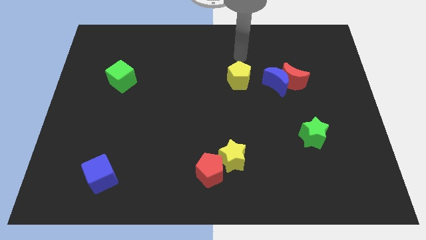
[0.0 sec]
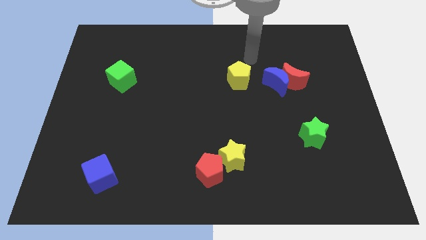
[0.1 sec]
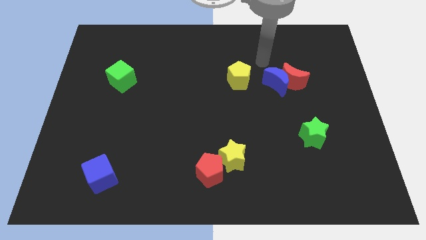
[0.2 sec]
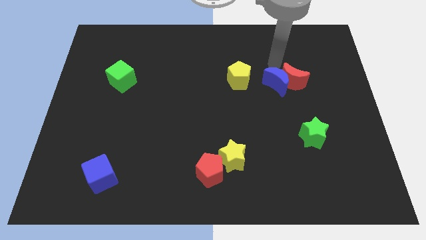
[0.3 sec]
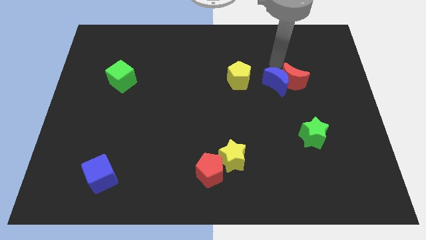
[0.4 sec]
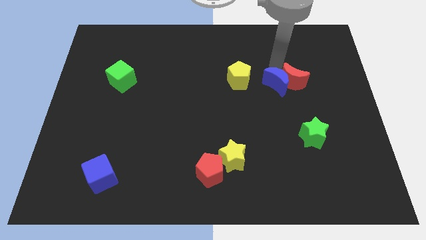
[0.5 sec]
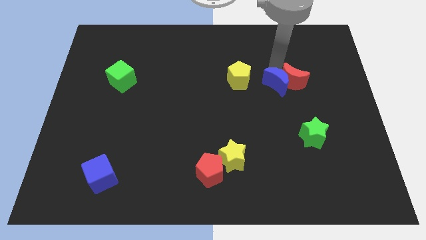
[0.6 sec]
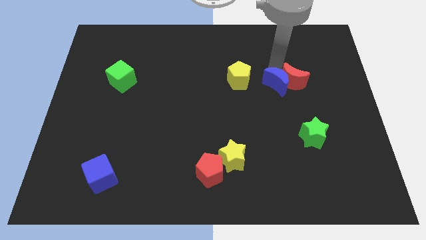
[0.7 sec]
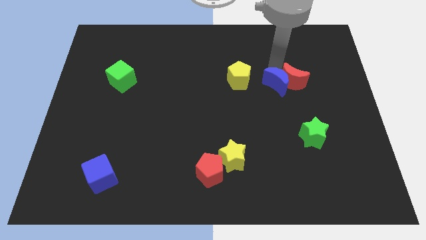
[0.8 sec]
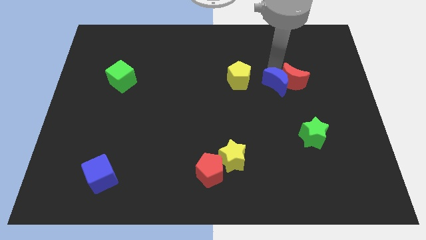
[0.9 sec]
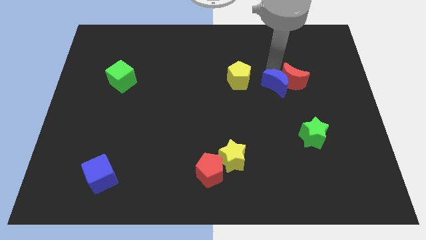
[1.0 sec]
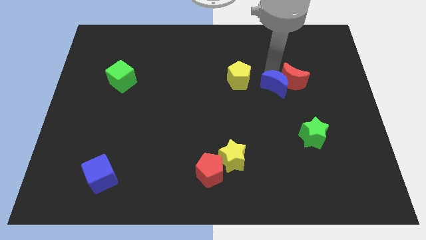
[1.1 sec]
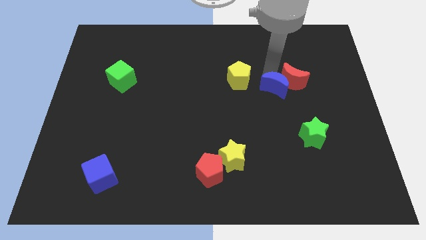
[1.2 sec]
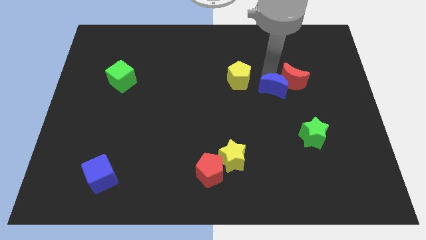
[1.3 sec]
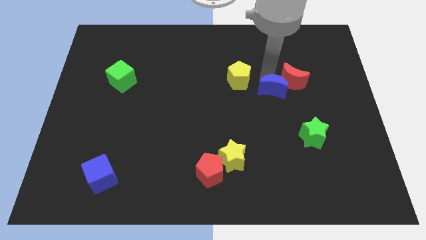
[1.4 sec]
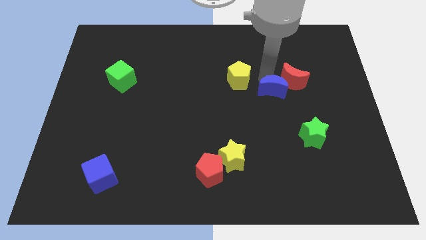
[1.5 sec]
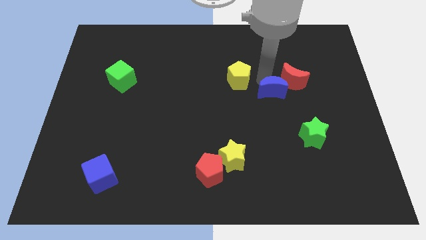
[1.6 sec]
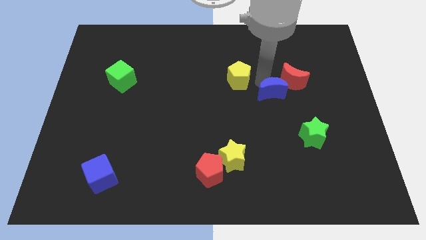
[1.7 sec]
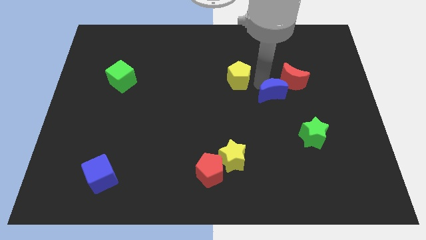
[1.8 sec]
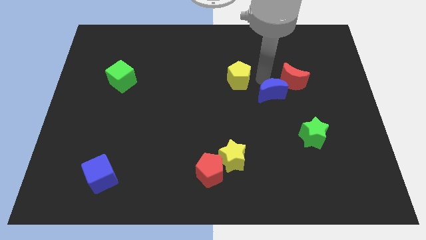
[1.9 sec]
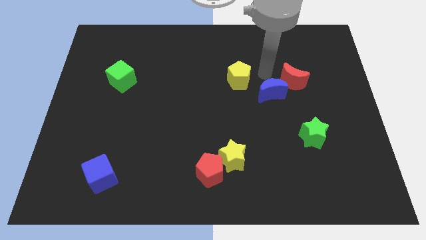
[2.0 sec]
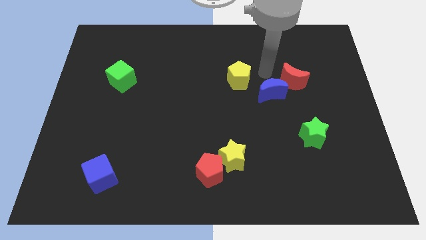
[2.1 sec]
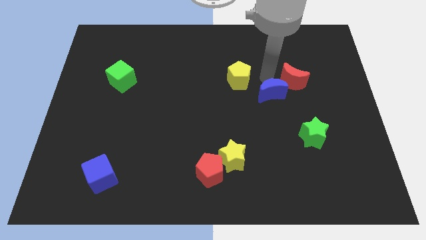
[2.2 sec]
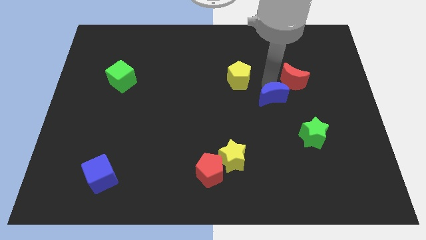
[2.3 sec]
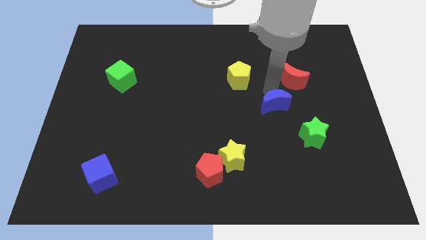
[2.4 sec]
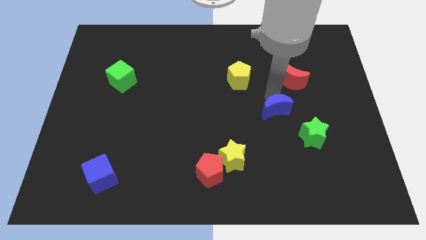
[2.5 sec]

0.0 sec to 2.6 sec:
slide the blue moon slightly down

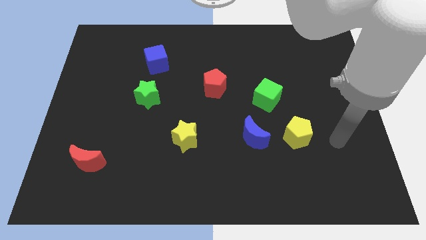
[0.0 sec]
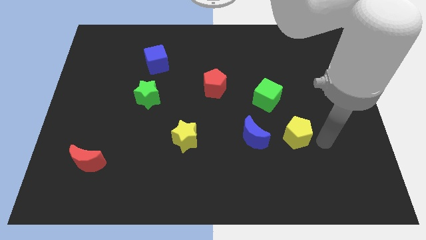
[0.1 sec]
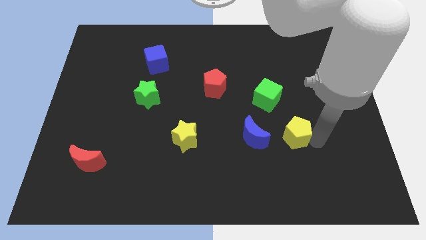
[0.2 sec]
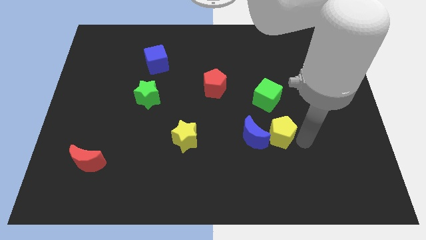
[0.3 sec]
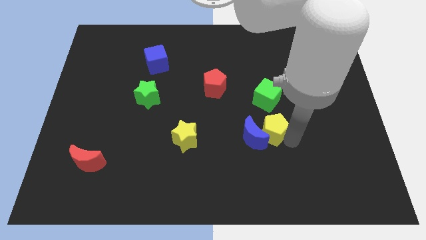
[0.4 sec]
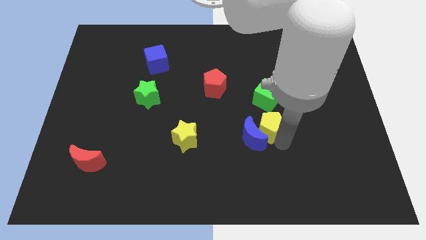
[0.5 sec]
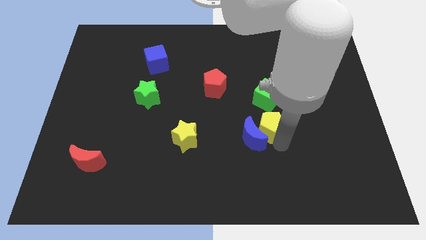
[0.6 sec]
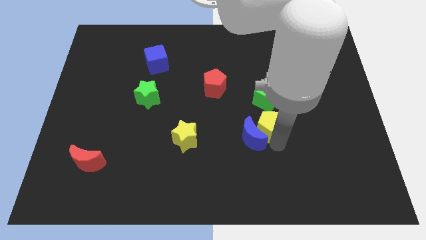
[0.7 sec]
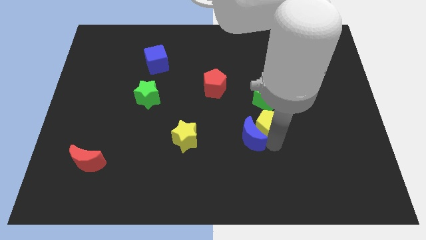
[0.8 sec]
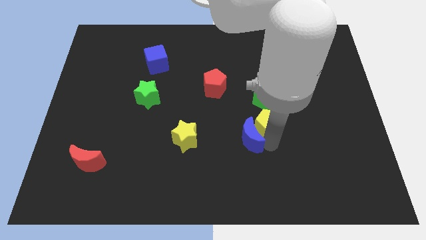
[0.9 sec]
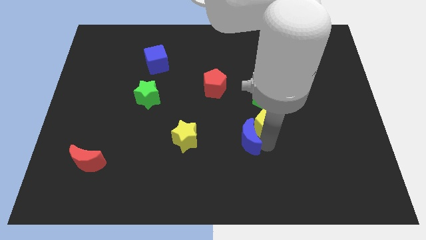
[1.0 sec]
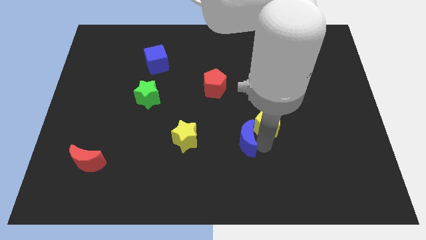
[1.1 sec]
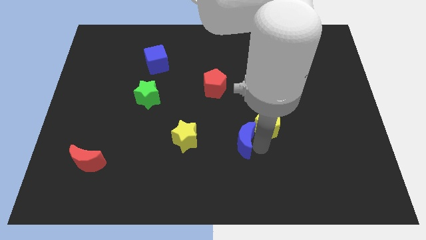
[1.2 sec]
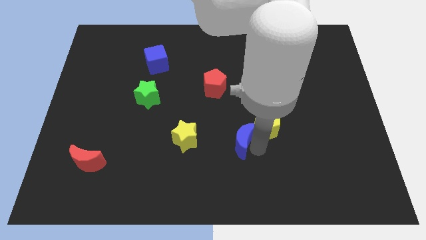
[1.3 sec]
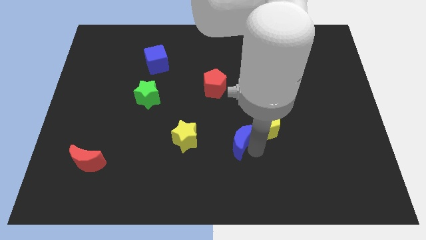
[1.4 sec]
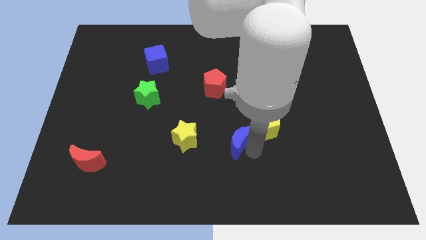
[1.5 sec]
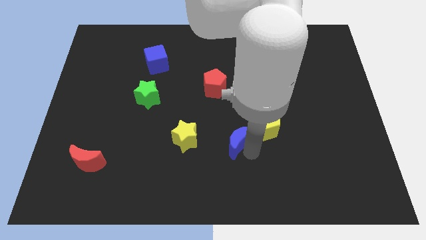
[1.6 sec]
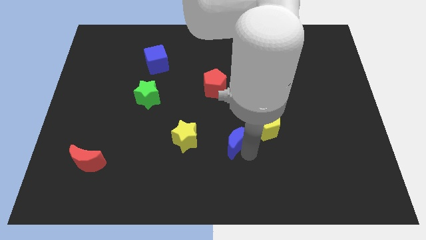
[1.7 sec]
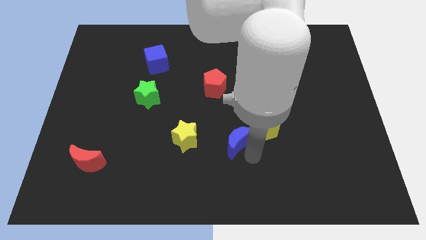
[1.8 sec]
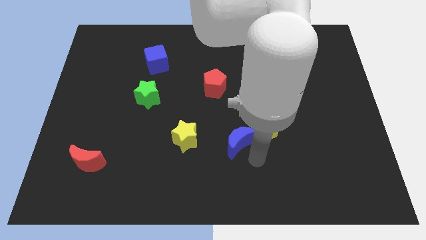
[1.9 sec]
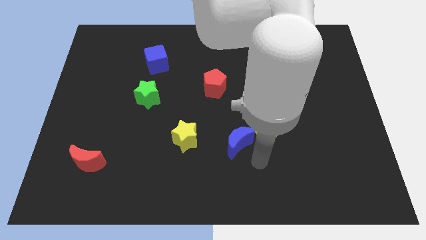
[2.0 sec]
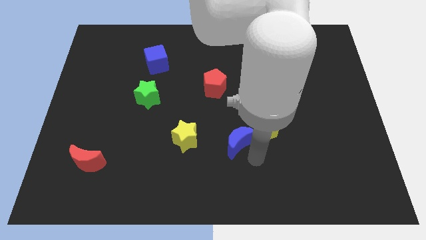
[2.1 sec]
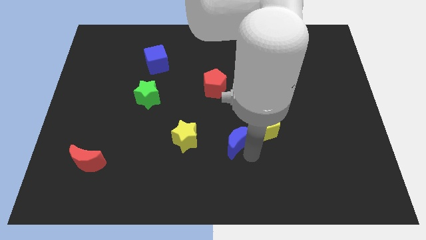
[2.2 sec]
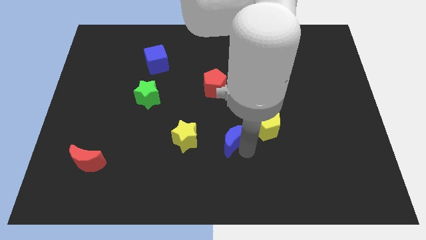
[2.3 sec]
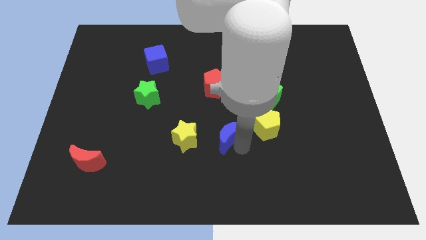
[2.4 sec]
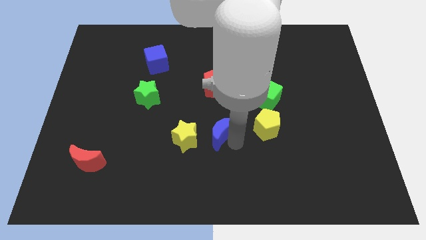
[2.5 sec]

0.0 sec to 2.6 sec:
slide the blue moon a little bit left

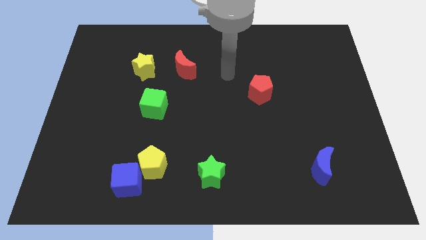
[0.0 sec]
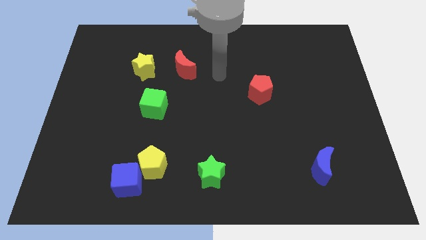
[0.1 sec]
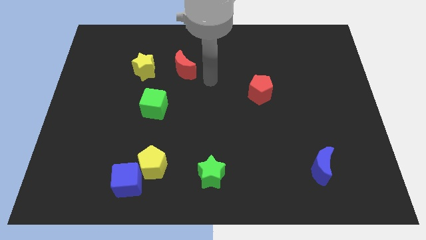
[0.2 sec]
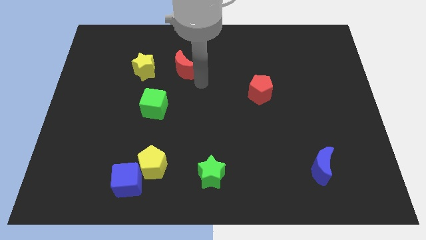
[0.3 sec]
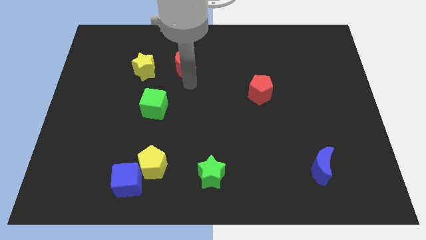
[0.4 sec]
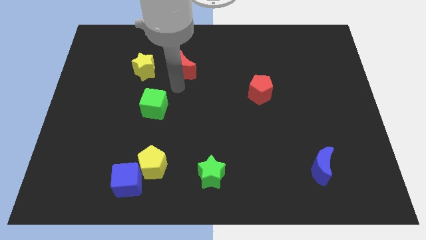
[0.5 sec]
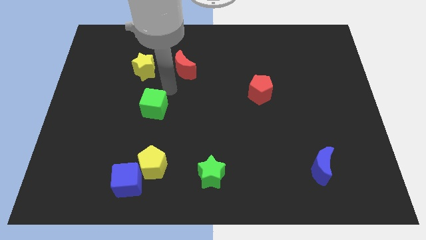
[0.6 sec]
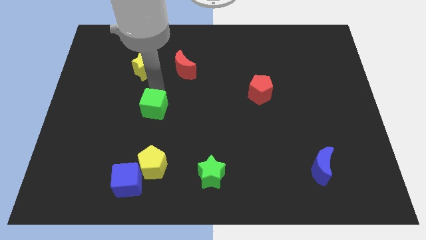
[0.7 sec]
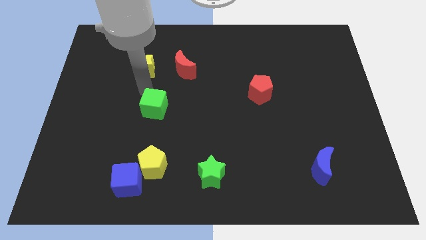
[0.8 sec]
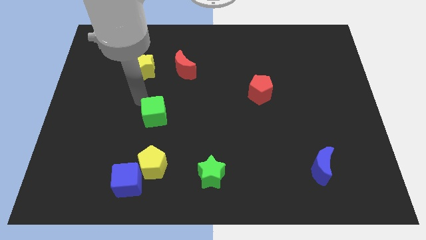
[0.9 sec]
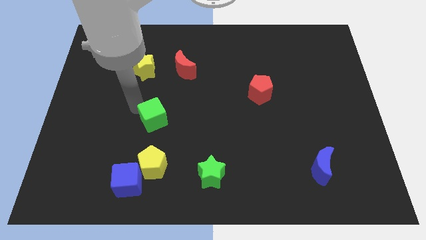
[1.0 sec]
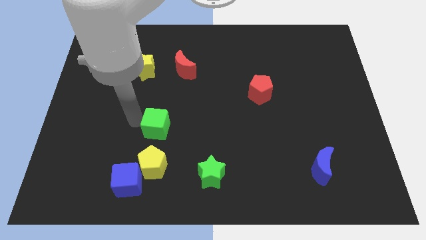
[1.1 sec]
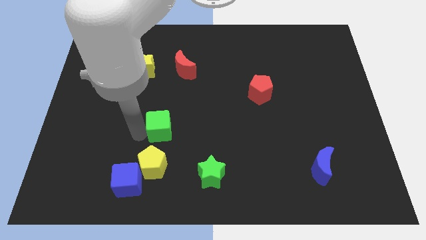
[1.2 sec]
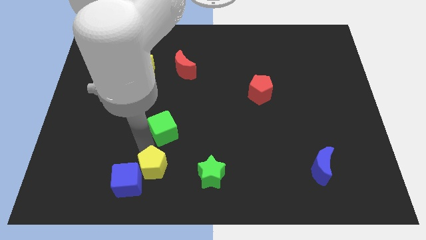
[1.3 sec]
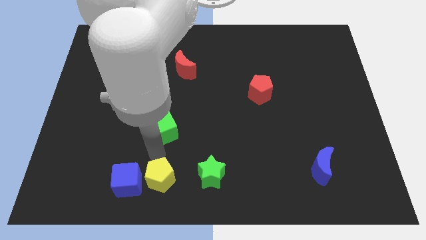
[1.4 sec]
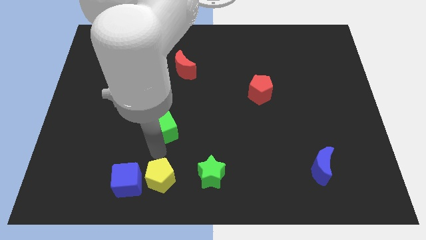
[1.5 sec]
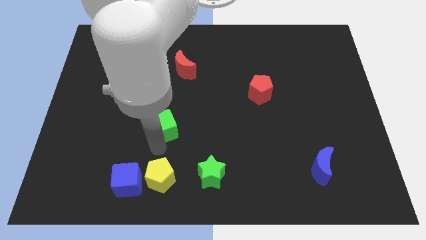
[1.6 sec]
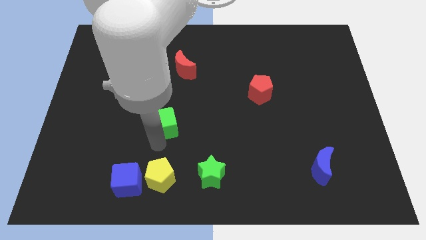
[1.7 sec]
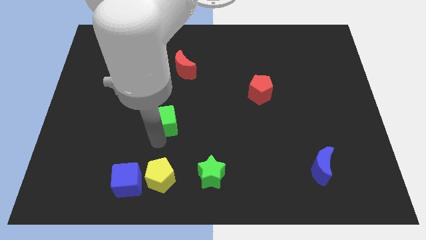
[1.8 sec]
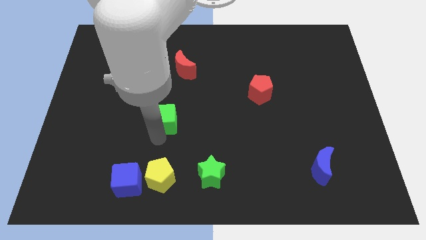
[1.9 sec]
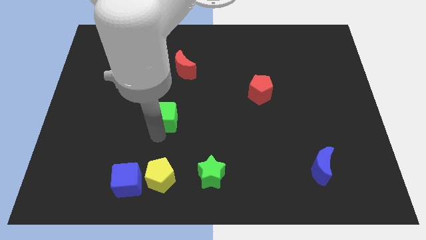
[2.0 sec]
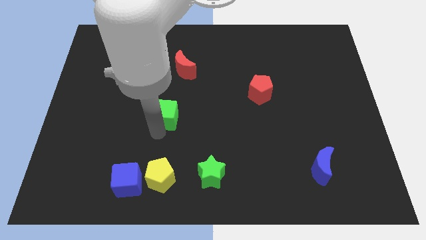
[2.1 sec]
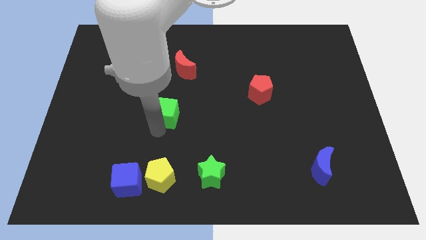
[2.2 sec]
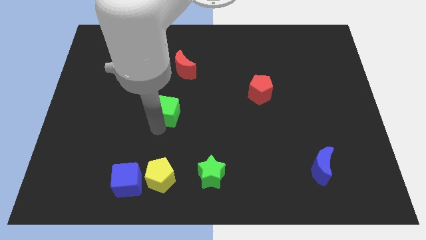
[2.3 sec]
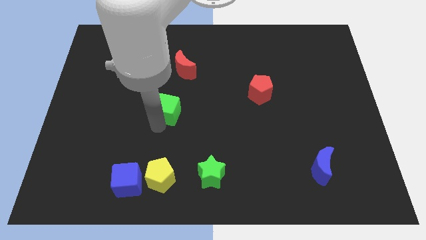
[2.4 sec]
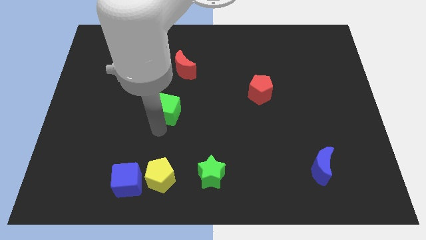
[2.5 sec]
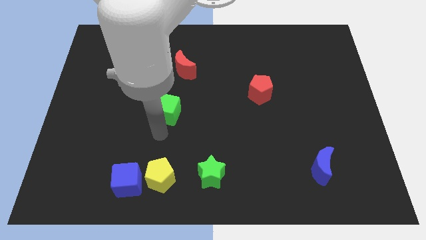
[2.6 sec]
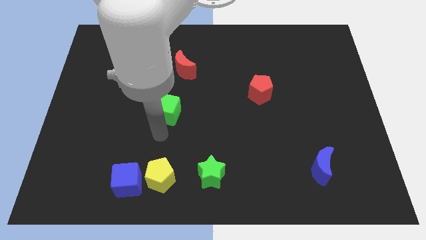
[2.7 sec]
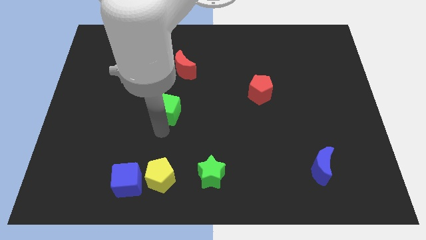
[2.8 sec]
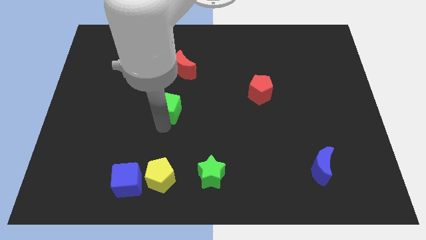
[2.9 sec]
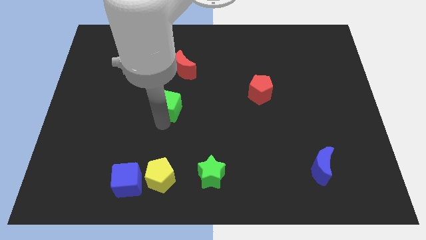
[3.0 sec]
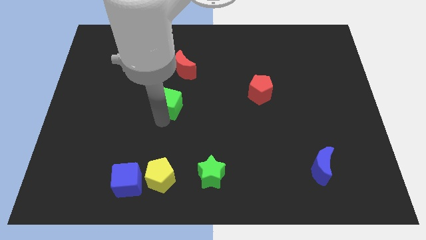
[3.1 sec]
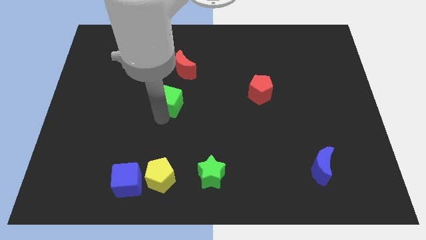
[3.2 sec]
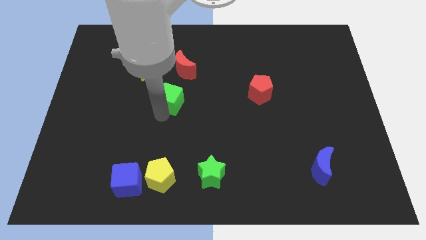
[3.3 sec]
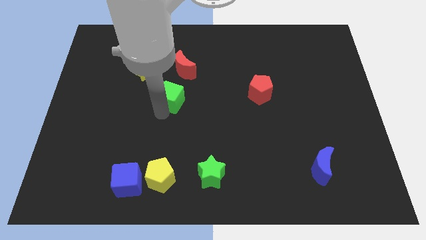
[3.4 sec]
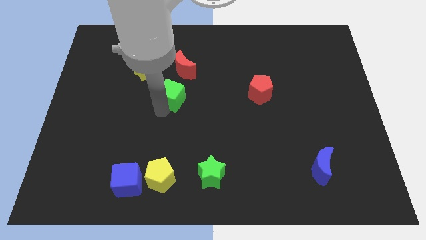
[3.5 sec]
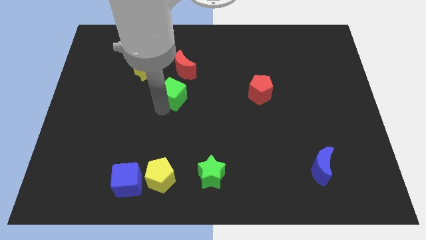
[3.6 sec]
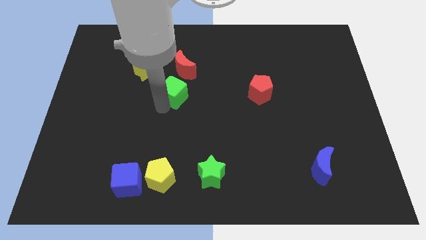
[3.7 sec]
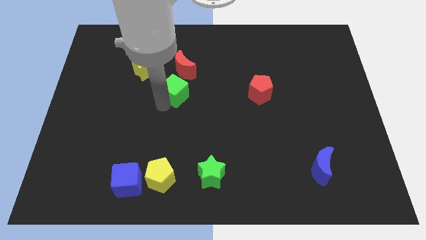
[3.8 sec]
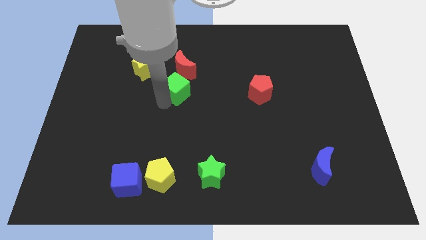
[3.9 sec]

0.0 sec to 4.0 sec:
slide the green cube upwards and to the right a bit
